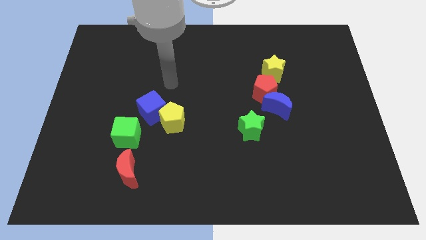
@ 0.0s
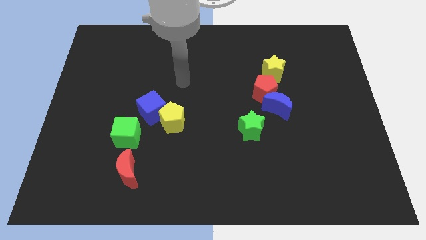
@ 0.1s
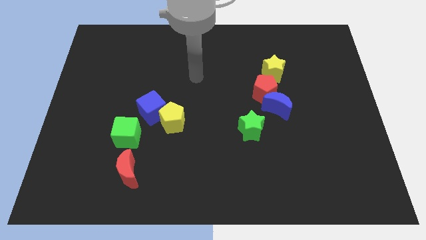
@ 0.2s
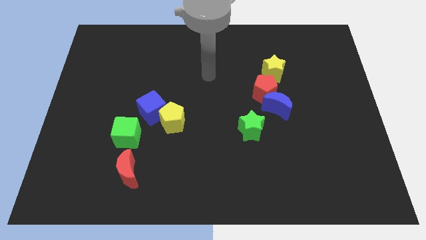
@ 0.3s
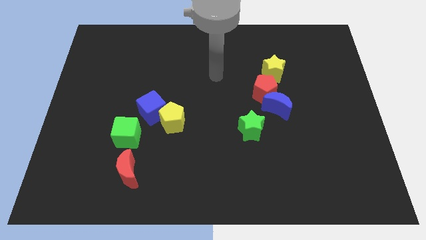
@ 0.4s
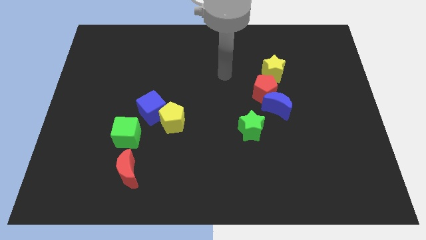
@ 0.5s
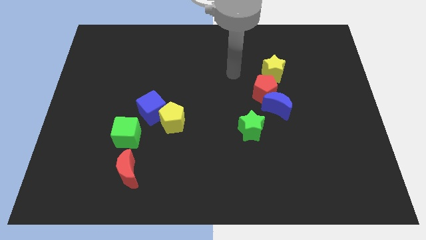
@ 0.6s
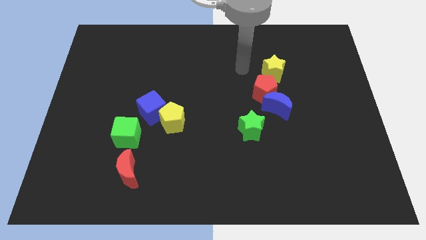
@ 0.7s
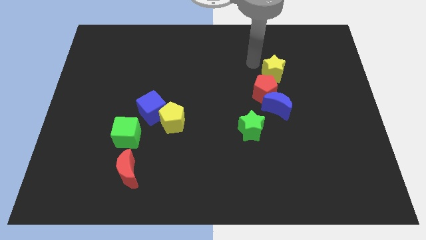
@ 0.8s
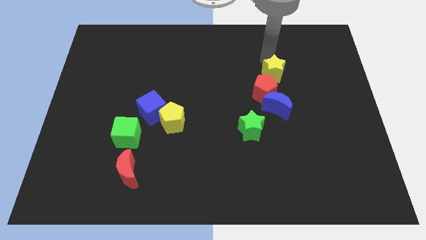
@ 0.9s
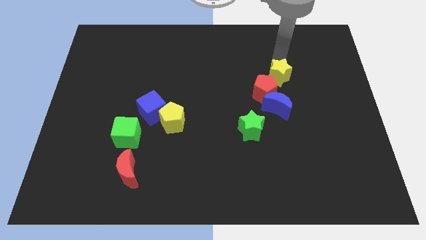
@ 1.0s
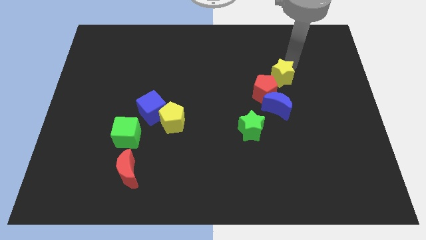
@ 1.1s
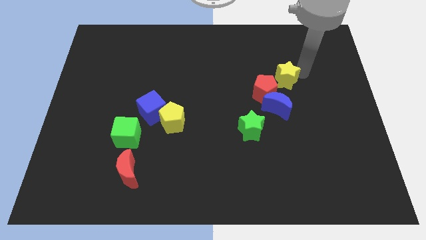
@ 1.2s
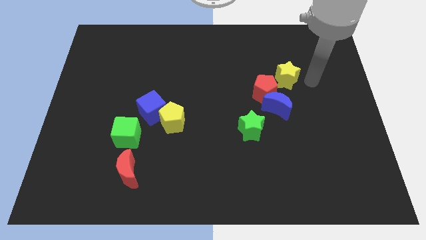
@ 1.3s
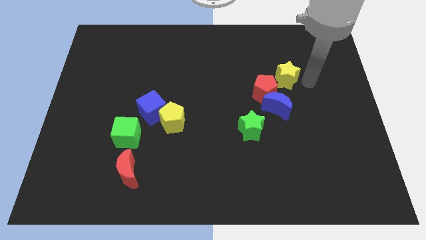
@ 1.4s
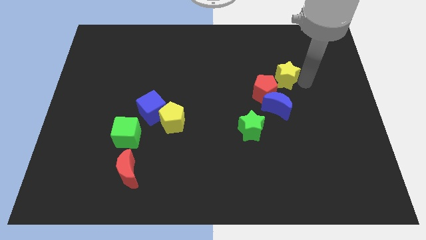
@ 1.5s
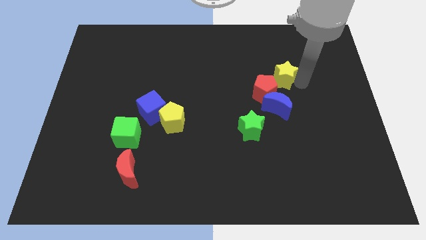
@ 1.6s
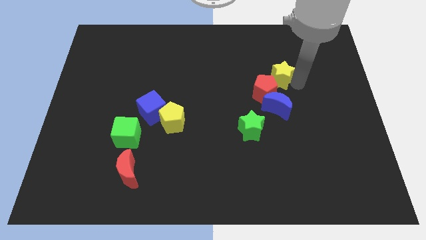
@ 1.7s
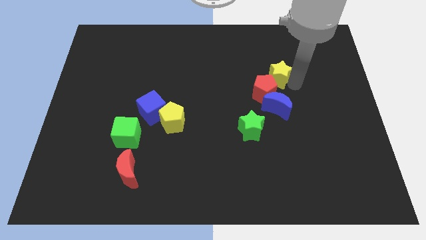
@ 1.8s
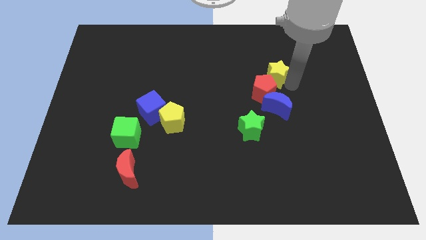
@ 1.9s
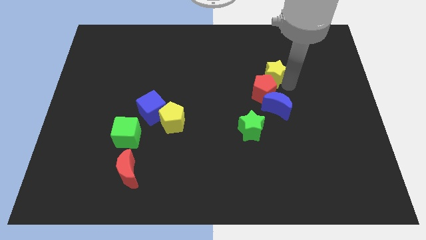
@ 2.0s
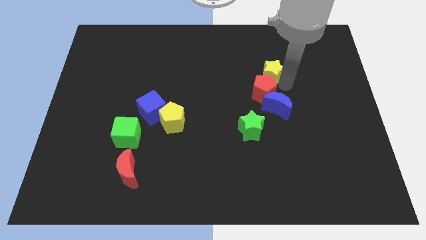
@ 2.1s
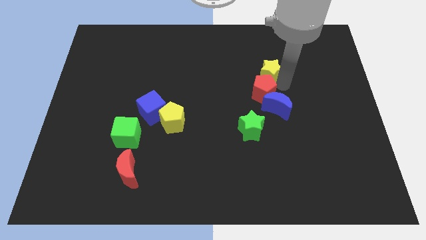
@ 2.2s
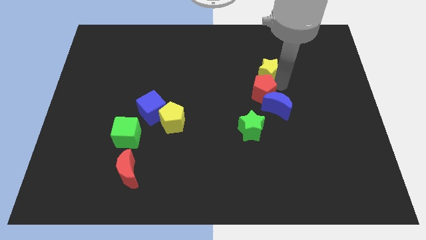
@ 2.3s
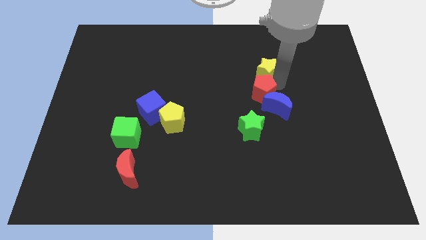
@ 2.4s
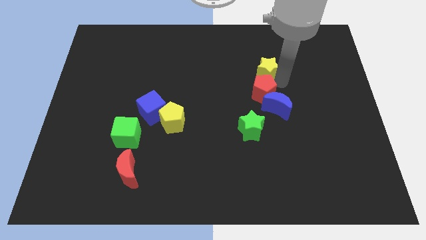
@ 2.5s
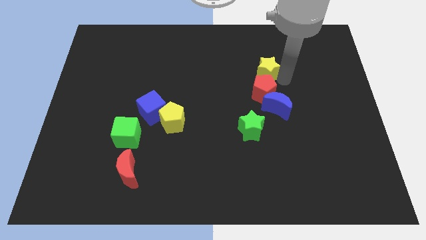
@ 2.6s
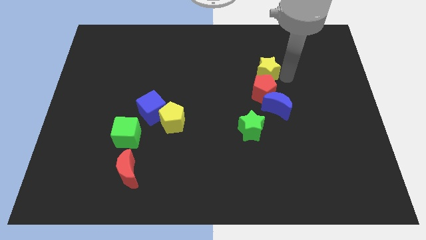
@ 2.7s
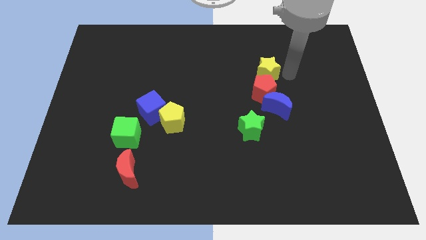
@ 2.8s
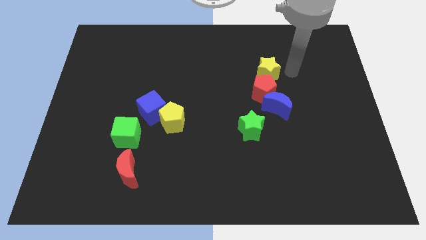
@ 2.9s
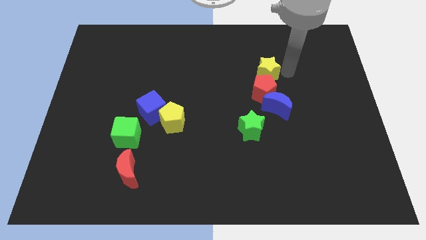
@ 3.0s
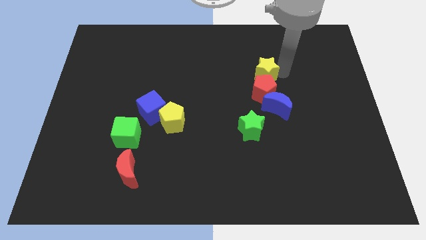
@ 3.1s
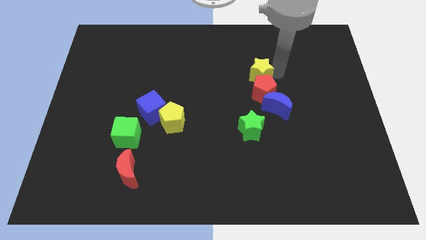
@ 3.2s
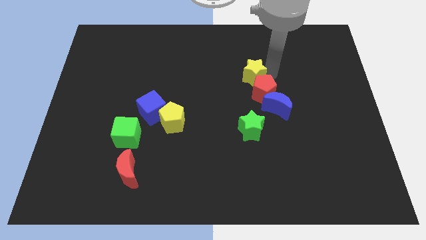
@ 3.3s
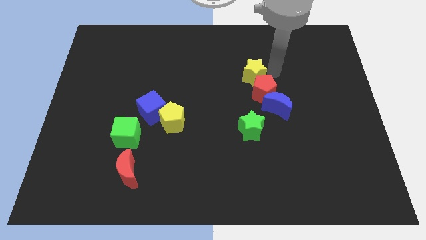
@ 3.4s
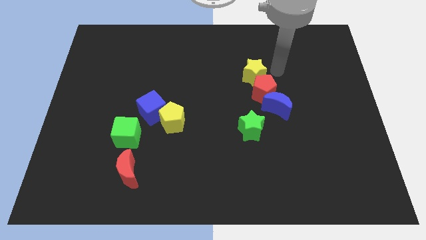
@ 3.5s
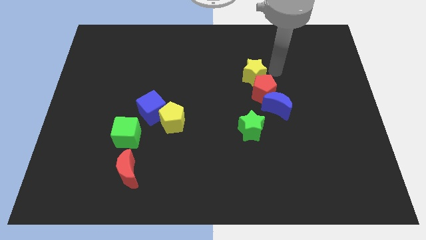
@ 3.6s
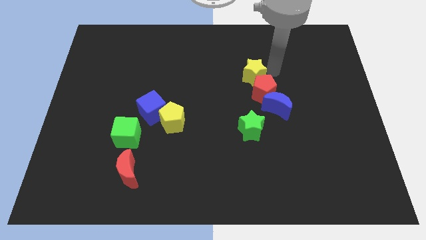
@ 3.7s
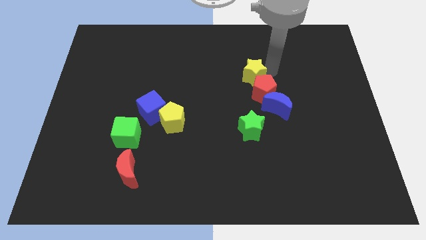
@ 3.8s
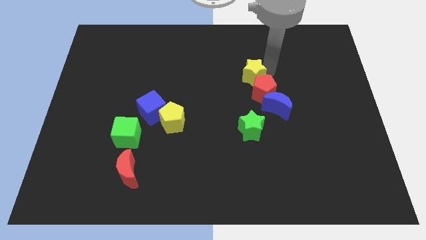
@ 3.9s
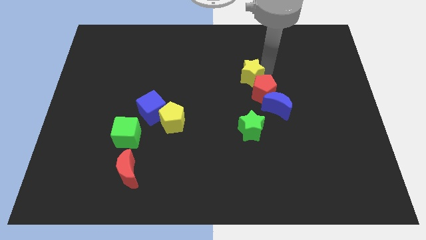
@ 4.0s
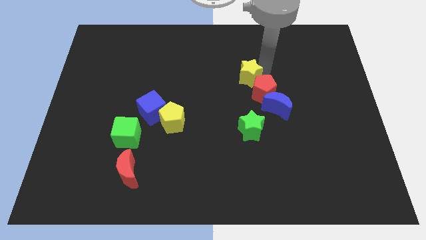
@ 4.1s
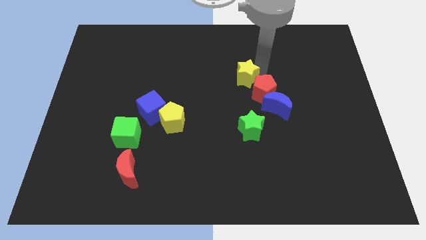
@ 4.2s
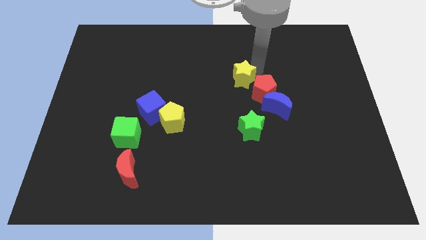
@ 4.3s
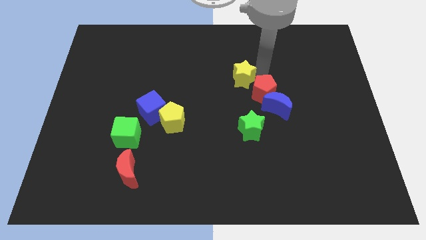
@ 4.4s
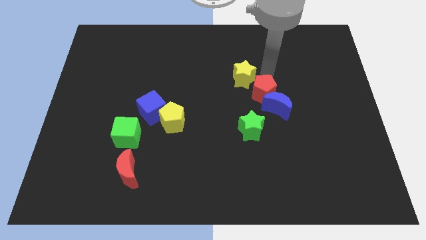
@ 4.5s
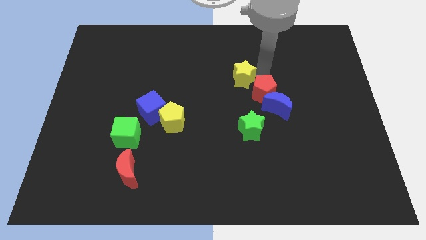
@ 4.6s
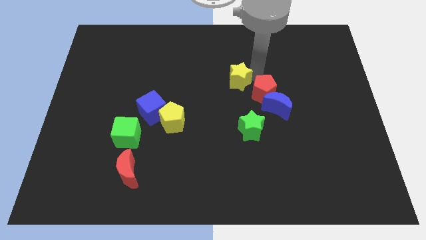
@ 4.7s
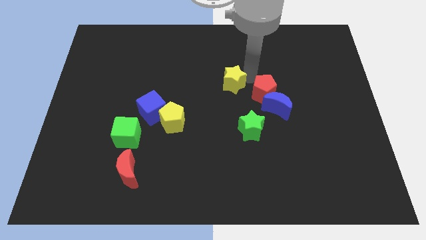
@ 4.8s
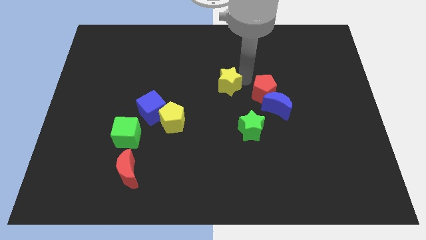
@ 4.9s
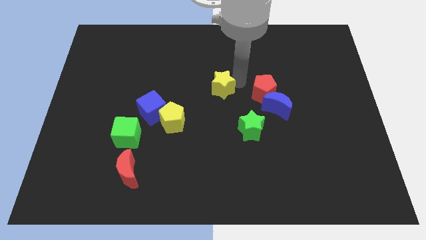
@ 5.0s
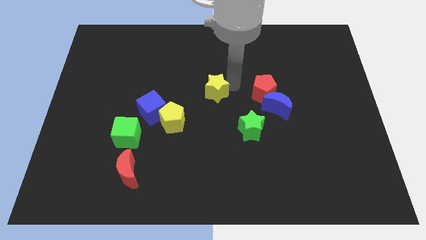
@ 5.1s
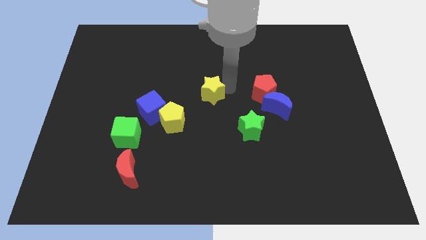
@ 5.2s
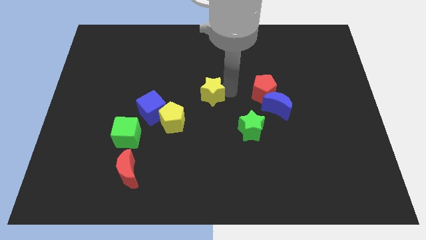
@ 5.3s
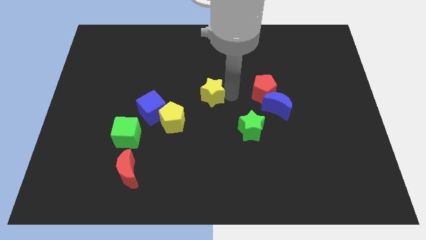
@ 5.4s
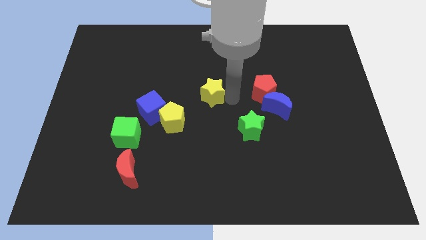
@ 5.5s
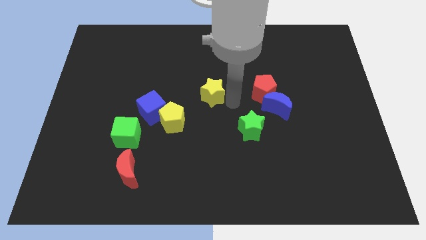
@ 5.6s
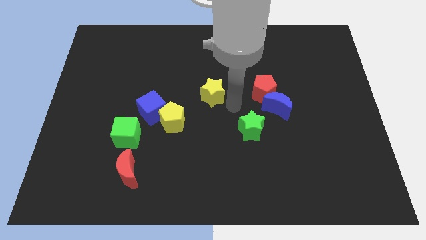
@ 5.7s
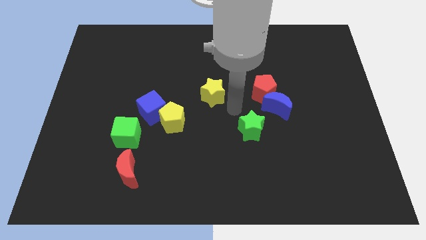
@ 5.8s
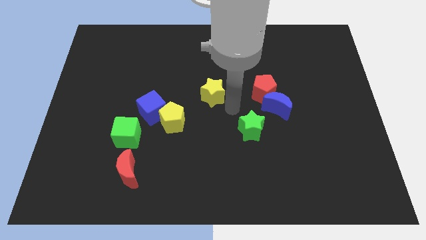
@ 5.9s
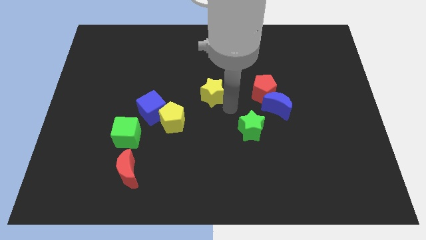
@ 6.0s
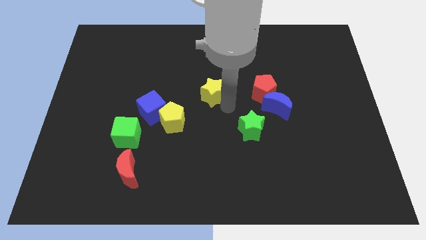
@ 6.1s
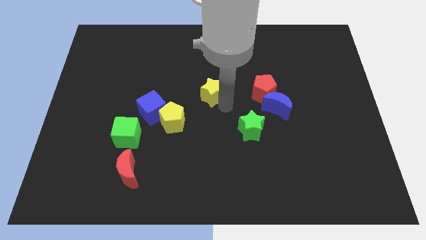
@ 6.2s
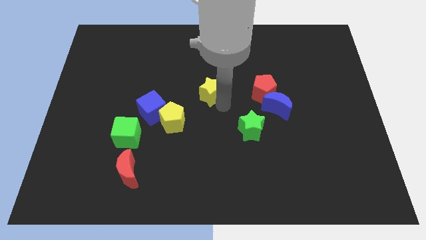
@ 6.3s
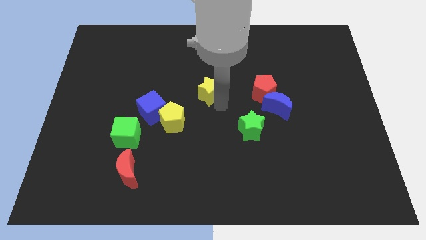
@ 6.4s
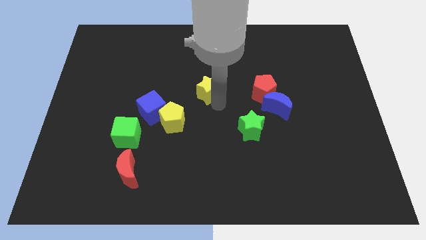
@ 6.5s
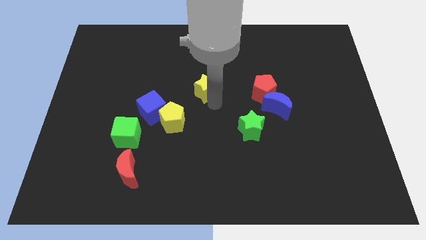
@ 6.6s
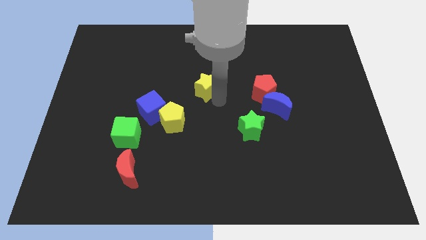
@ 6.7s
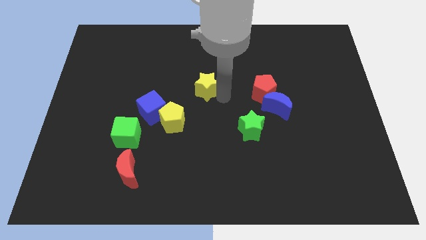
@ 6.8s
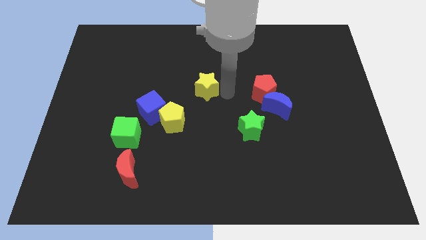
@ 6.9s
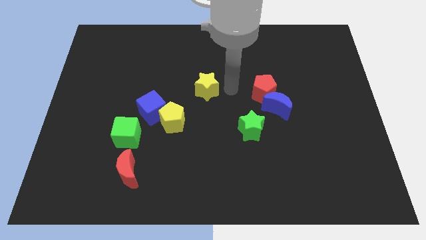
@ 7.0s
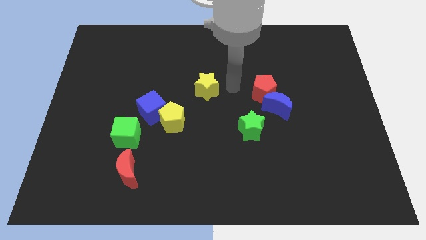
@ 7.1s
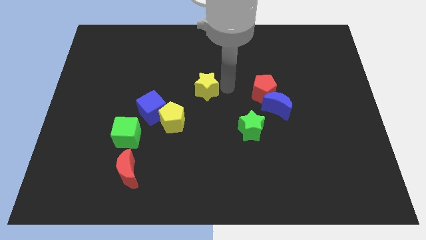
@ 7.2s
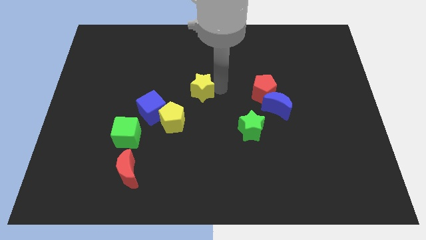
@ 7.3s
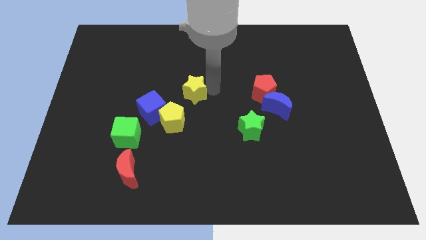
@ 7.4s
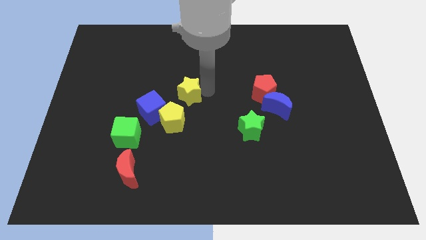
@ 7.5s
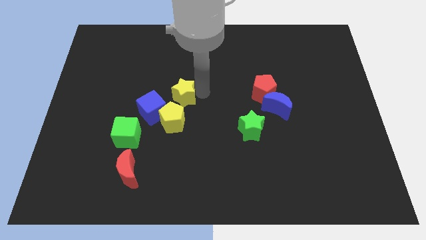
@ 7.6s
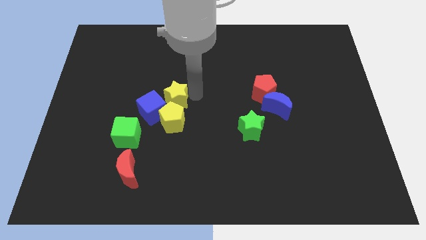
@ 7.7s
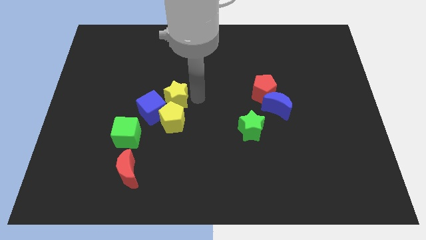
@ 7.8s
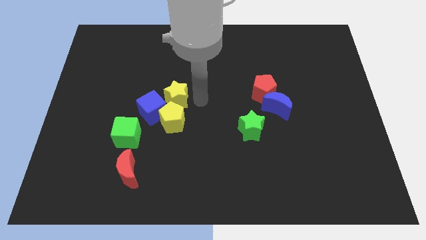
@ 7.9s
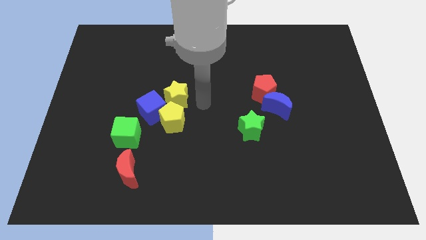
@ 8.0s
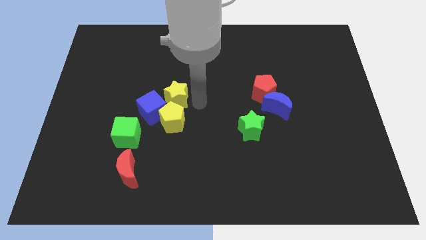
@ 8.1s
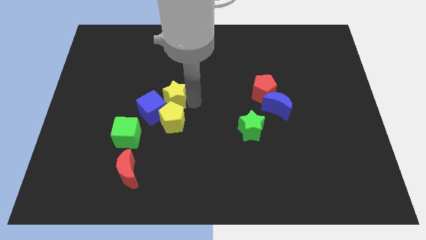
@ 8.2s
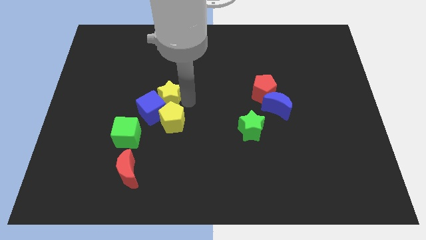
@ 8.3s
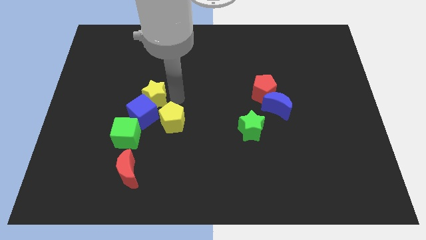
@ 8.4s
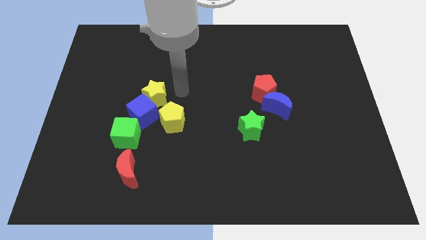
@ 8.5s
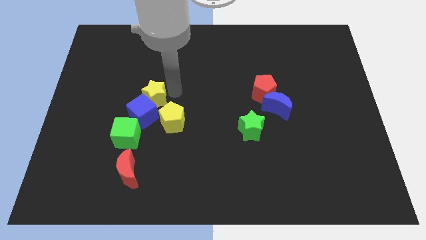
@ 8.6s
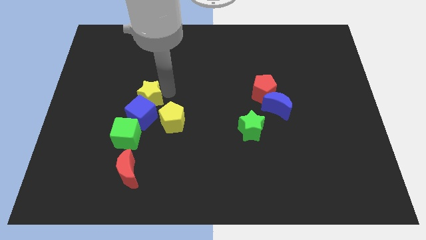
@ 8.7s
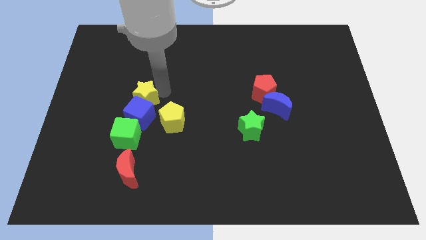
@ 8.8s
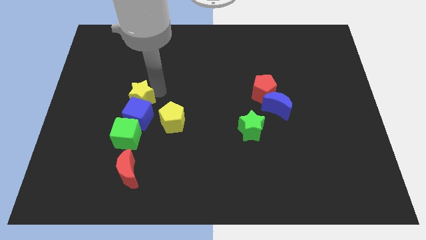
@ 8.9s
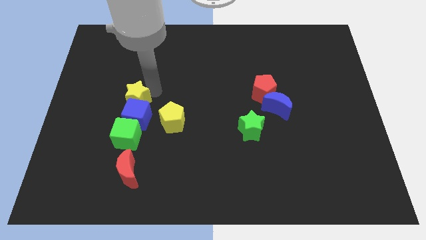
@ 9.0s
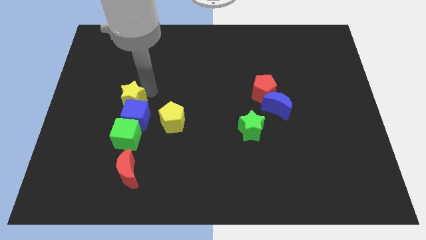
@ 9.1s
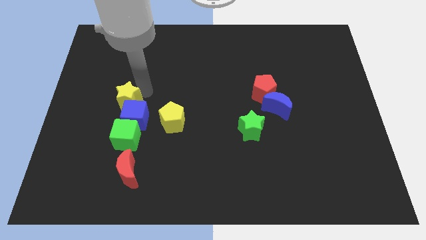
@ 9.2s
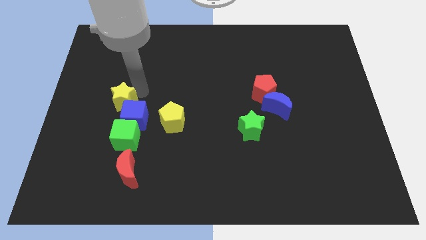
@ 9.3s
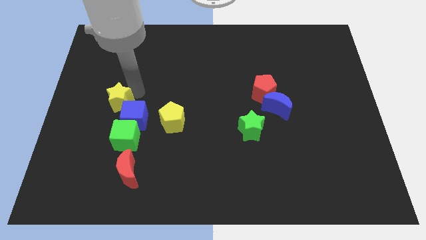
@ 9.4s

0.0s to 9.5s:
move the yellow star to the left side of the blue cube
